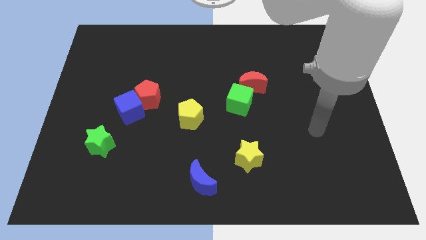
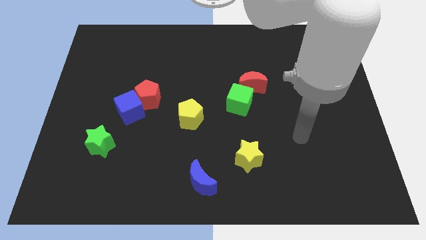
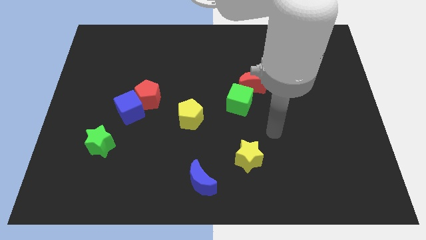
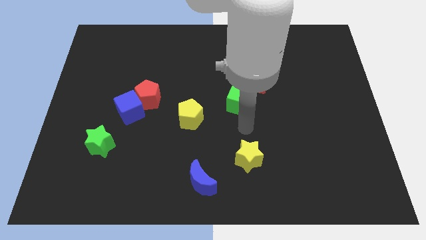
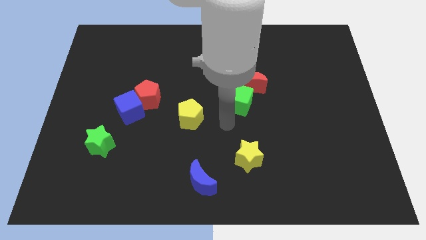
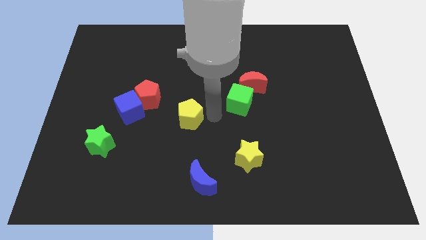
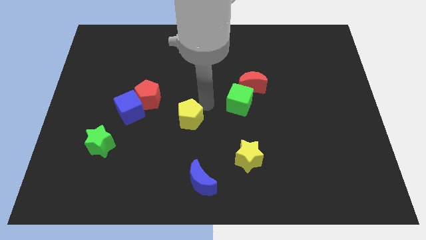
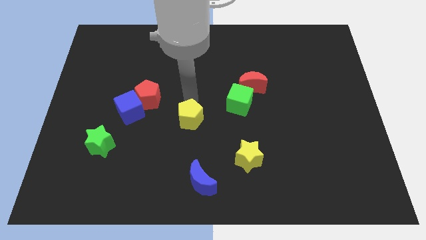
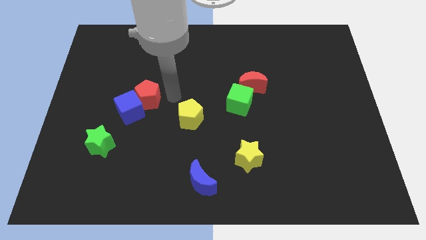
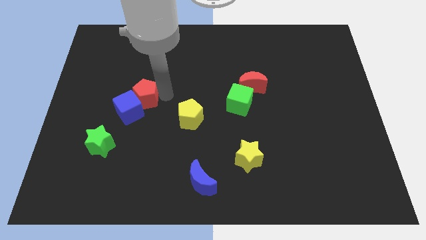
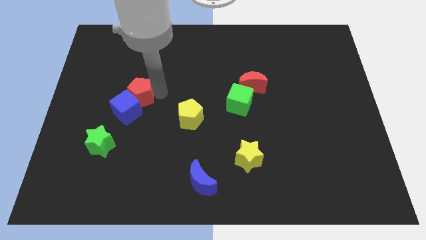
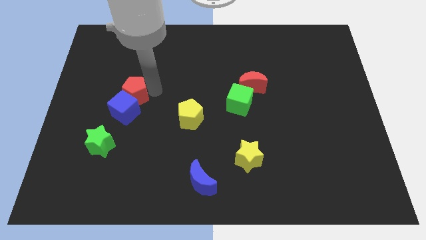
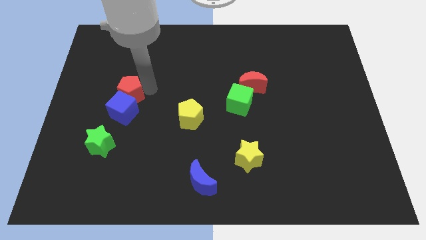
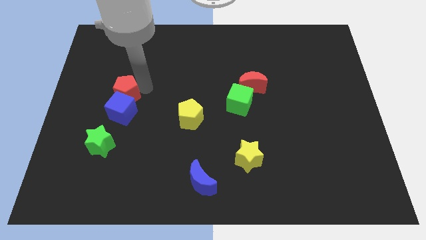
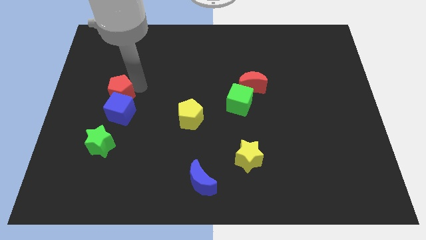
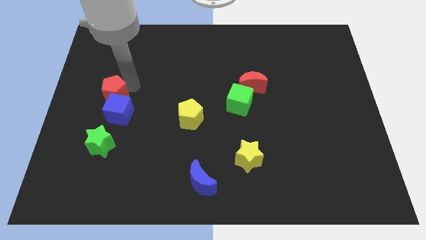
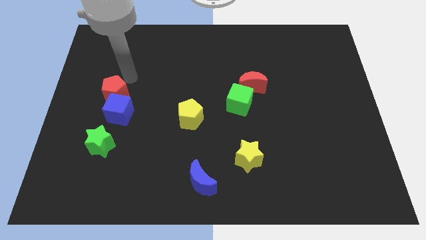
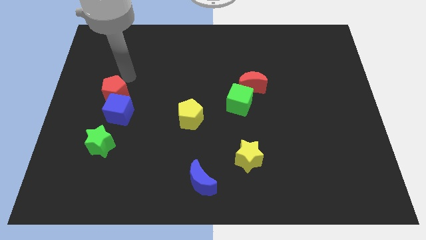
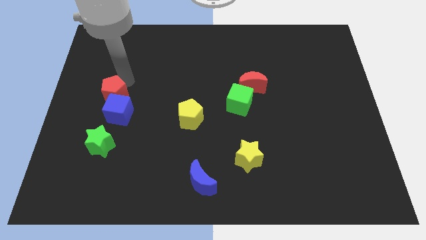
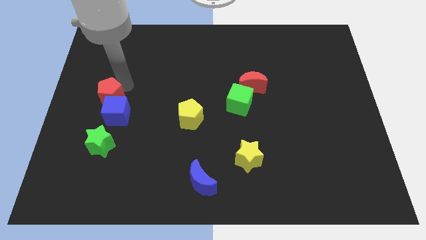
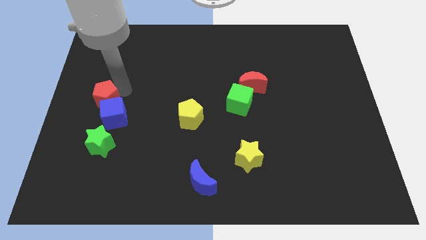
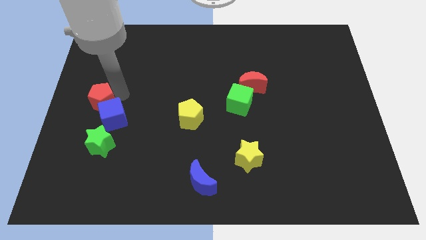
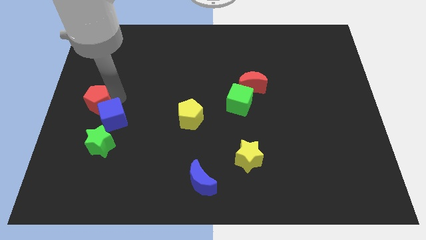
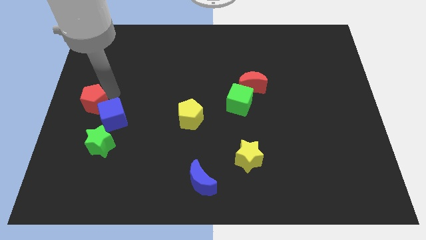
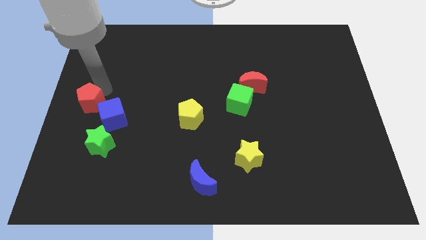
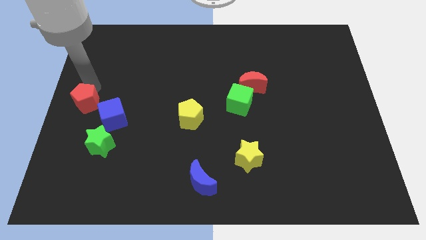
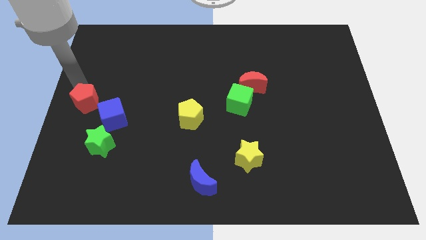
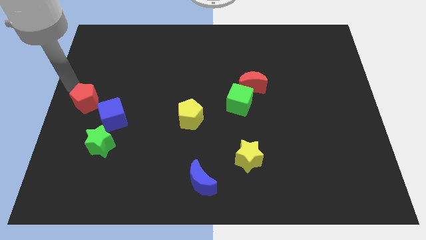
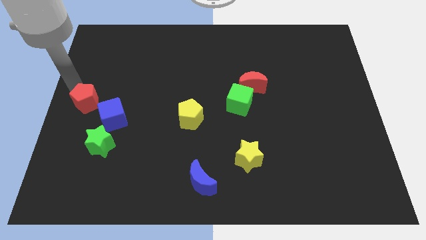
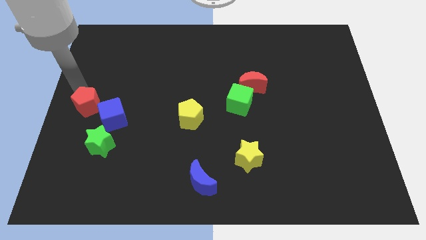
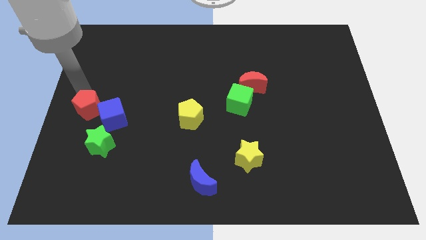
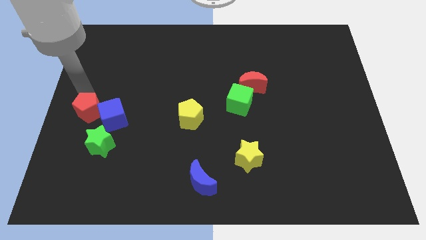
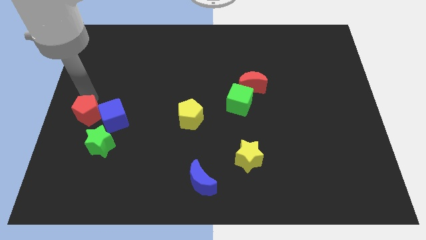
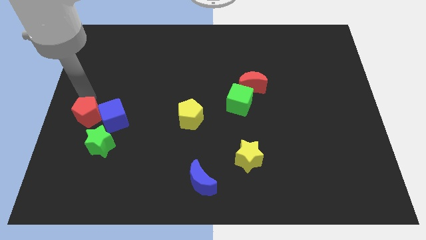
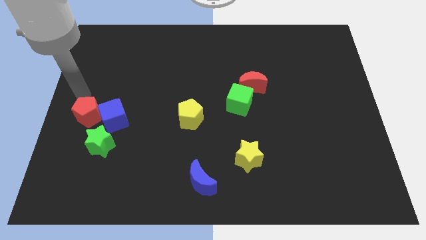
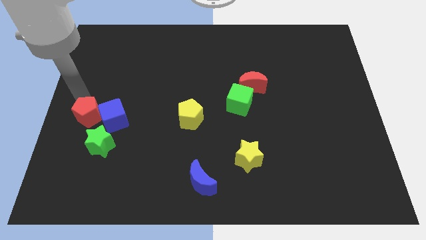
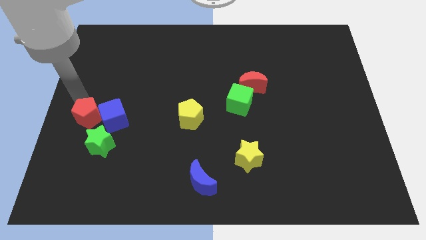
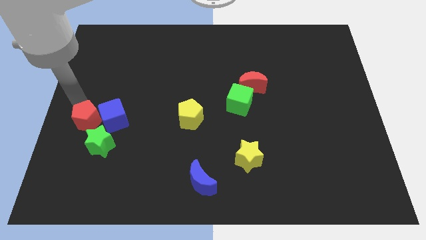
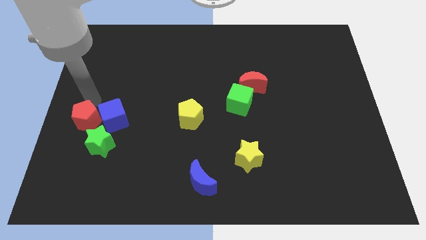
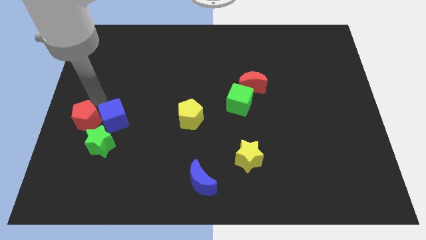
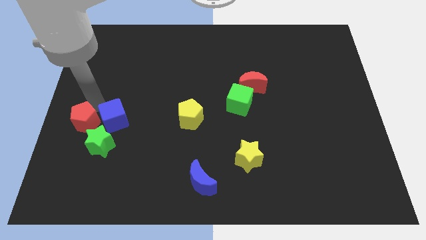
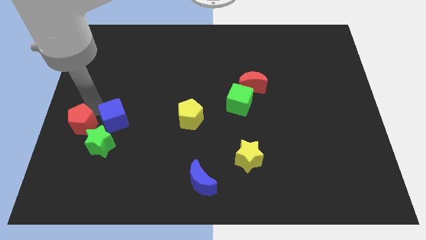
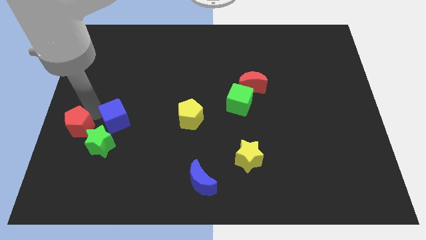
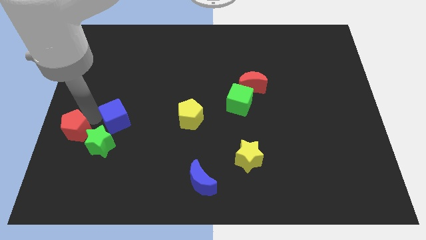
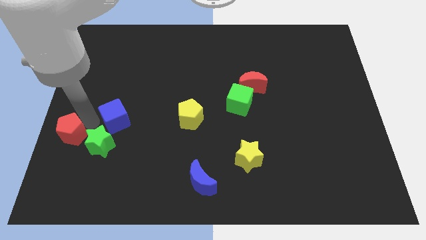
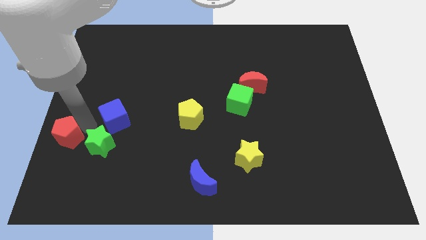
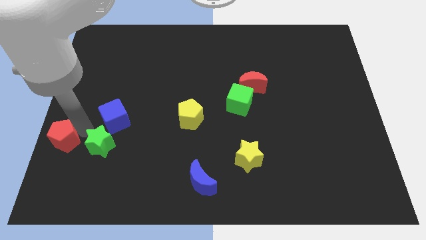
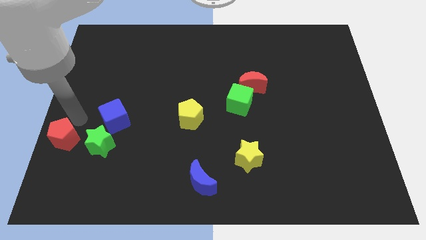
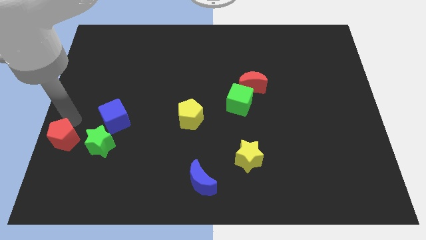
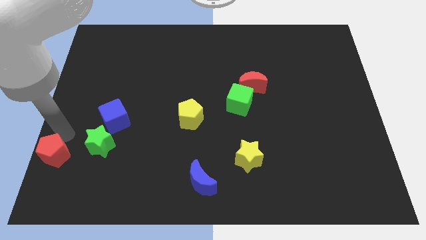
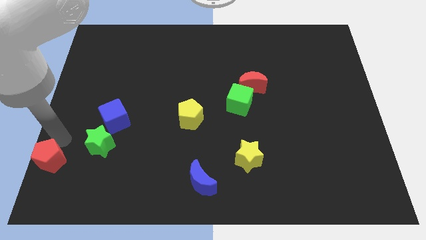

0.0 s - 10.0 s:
slide the red pentagon to the lower left corner

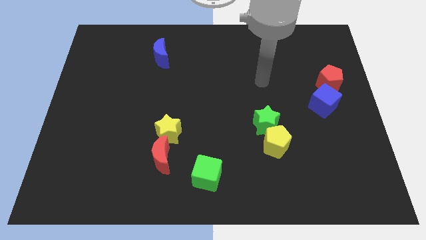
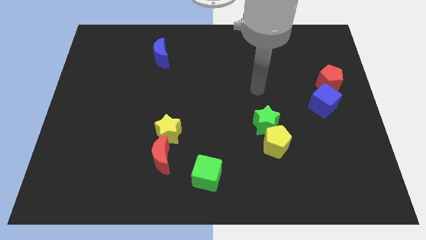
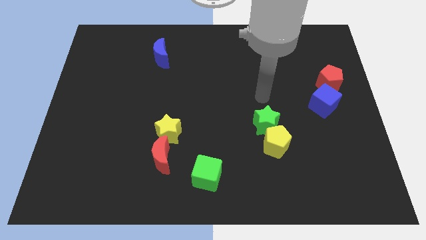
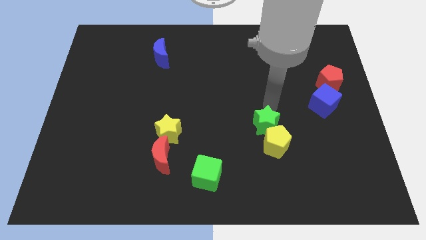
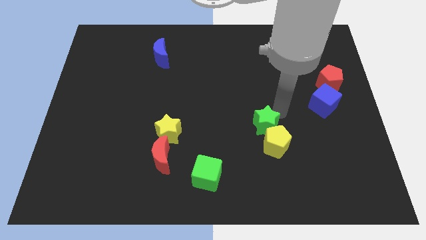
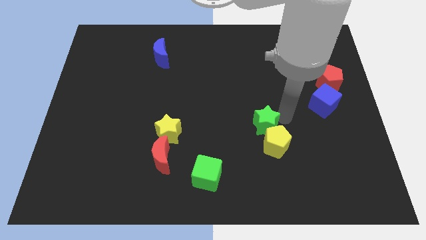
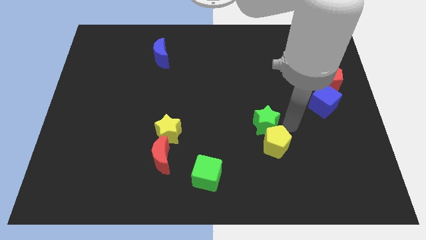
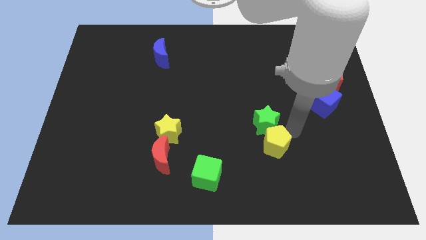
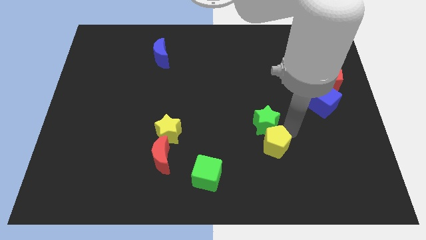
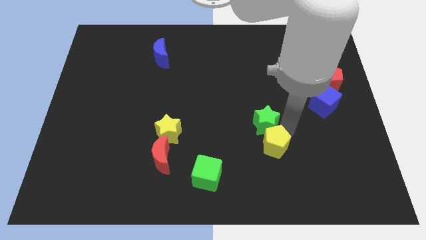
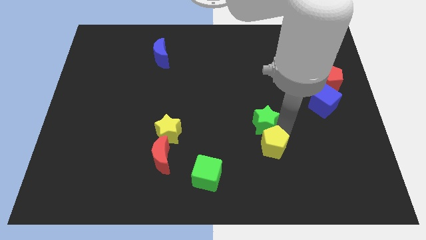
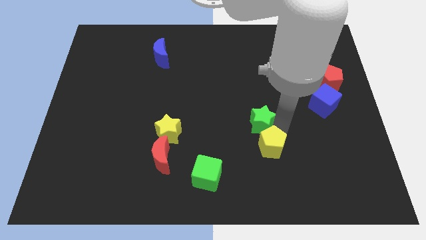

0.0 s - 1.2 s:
slide the green star to the center of the board
